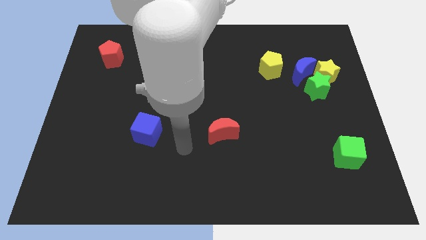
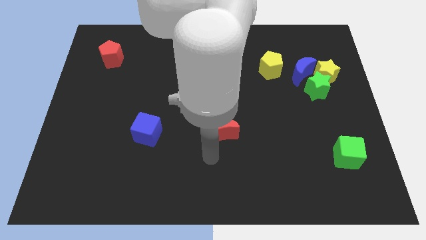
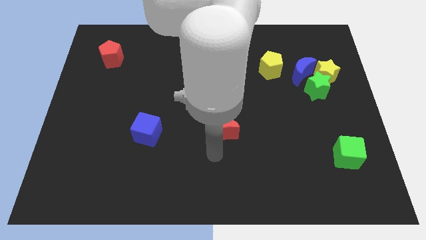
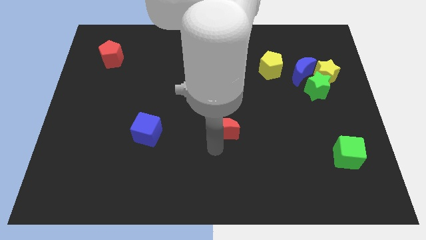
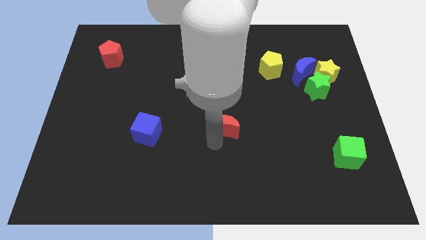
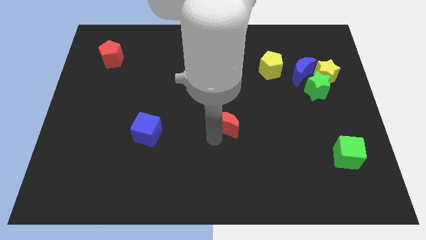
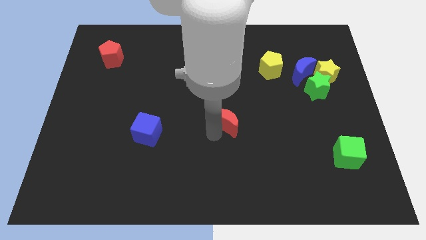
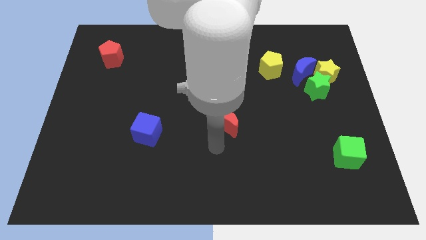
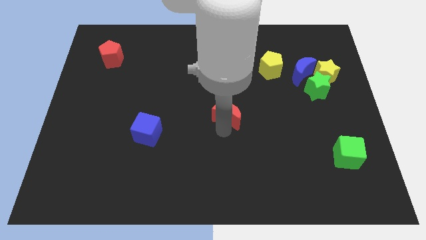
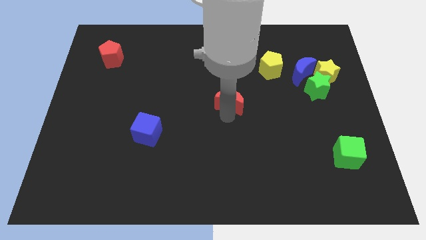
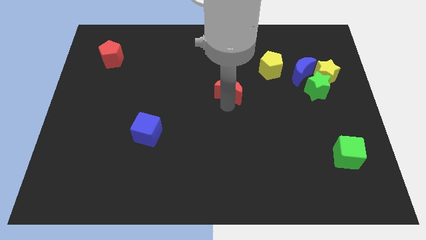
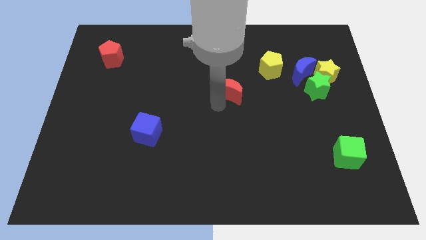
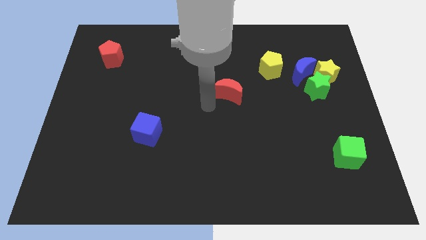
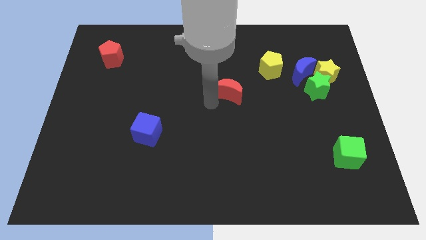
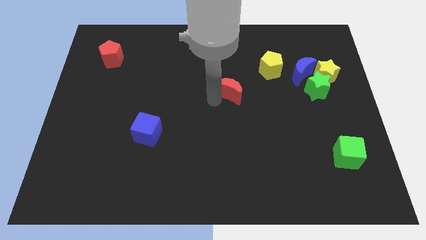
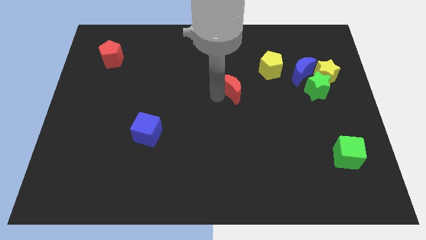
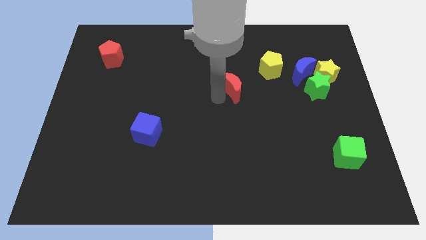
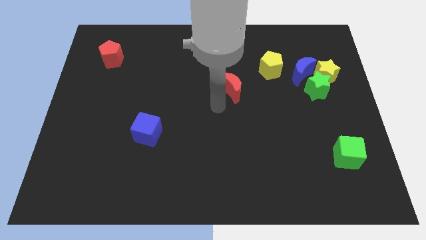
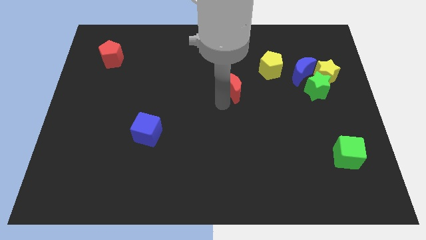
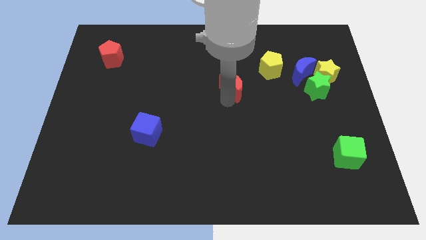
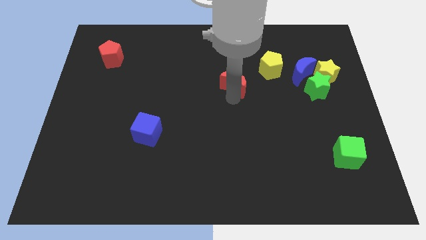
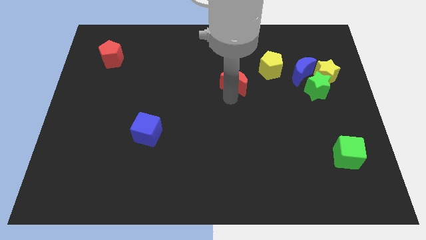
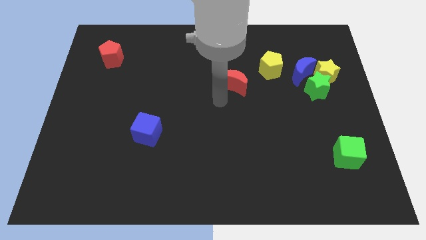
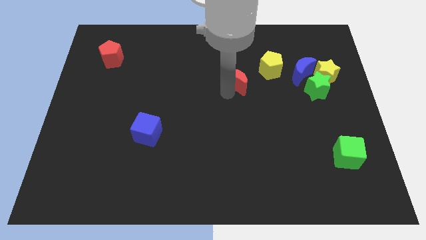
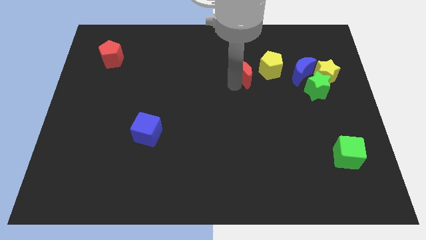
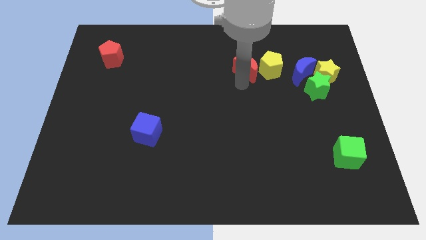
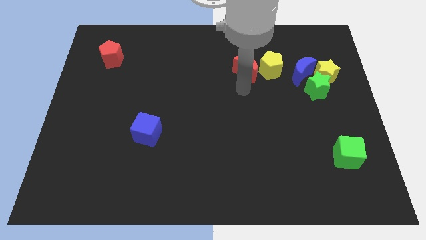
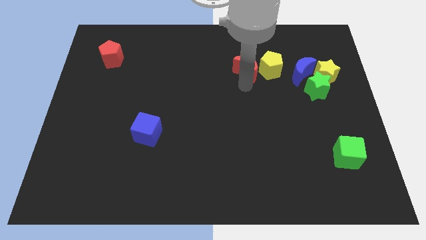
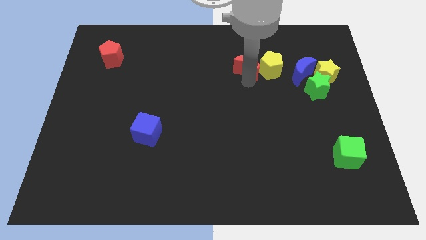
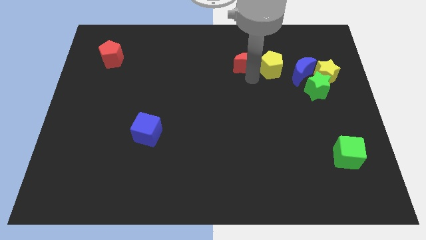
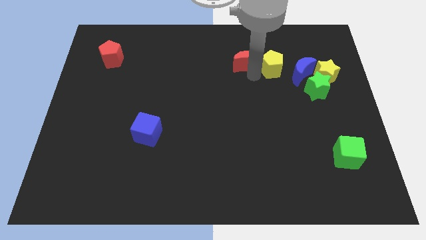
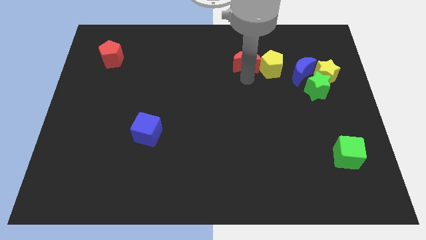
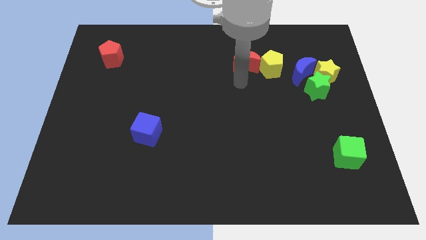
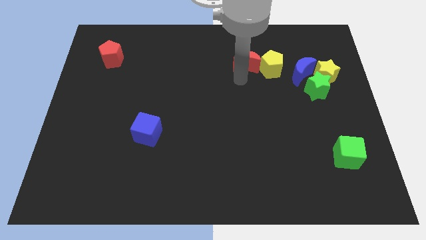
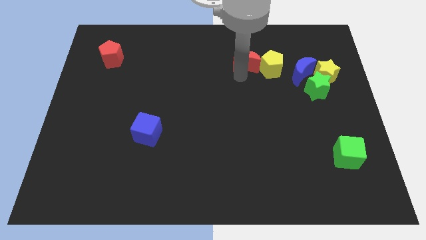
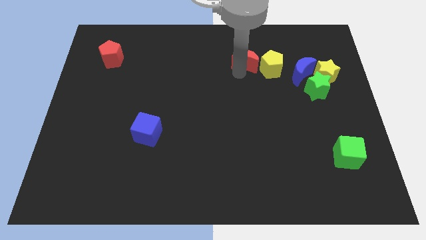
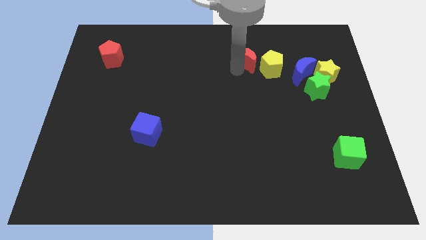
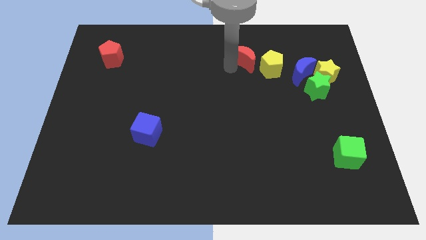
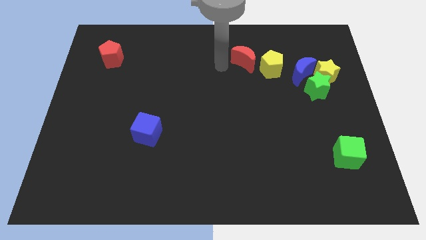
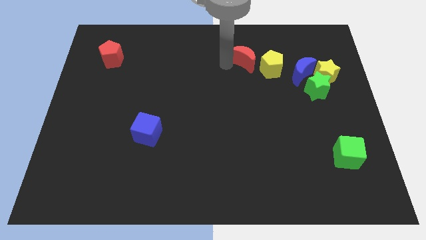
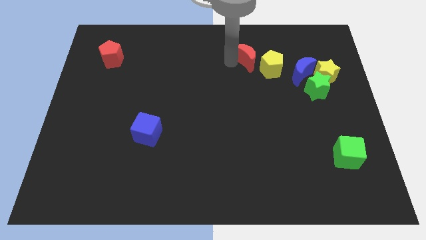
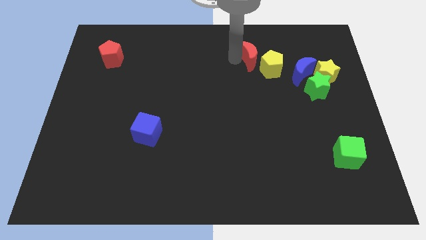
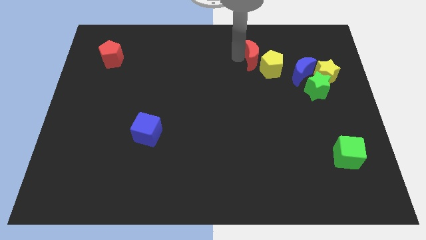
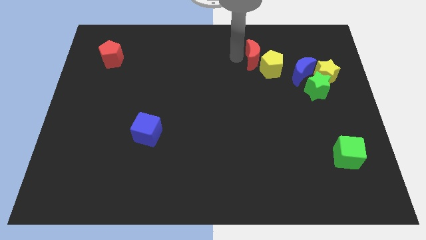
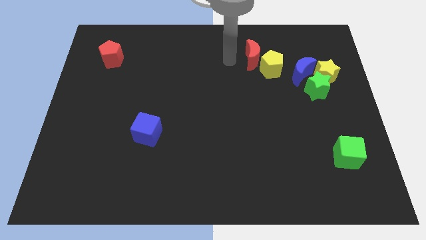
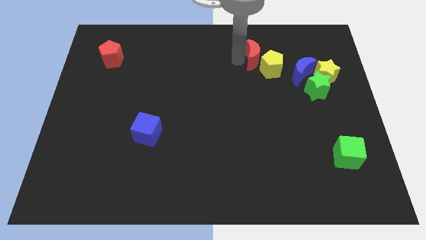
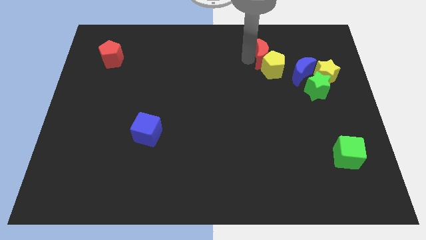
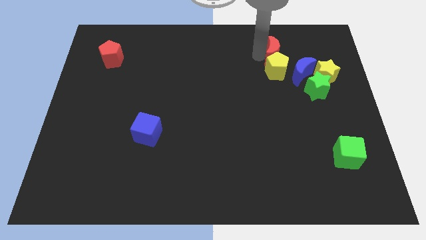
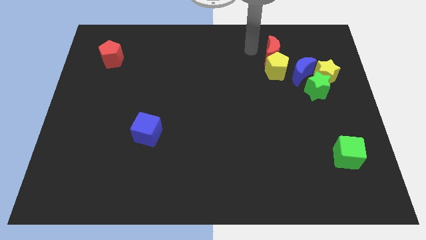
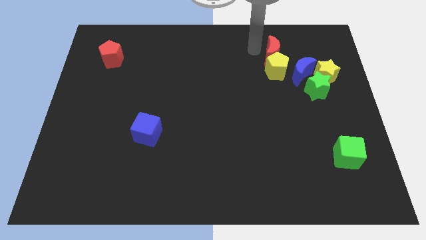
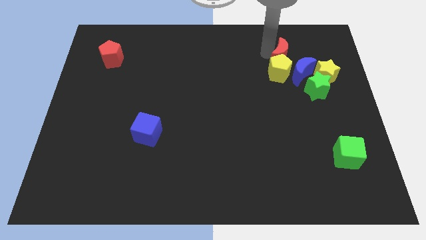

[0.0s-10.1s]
push the red moon to the top left of the yellow star

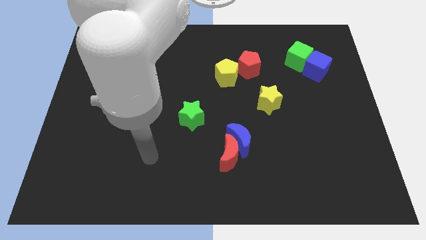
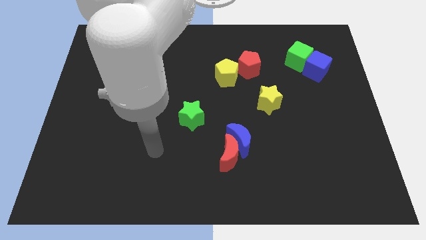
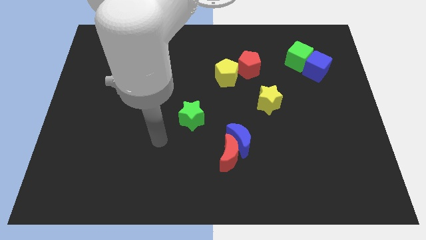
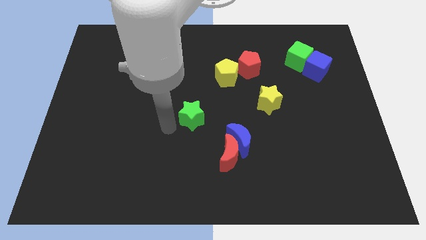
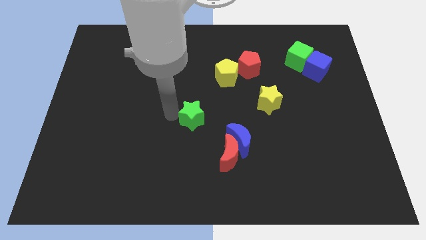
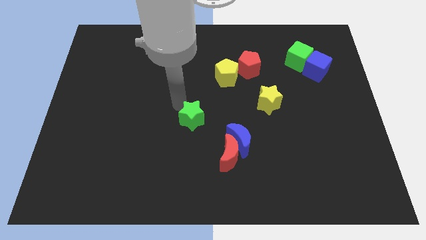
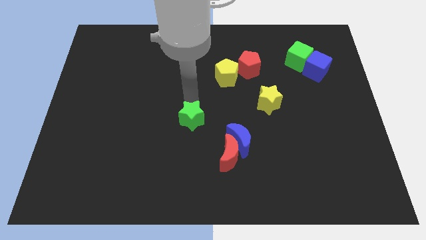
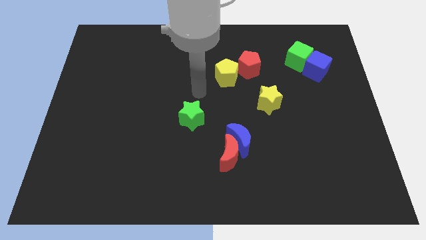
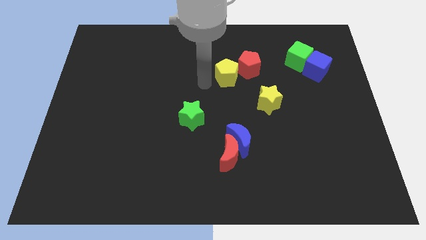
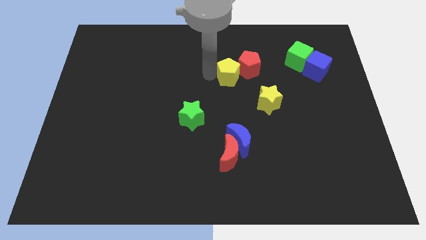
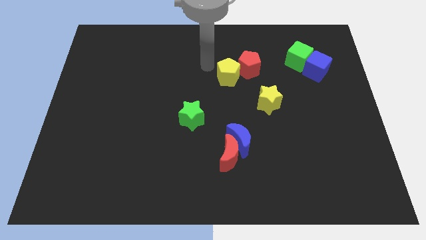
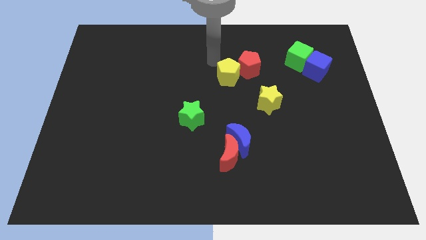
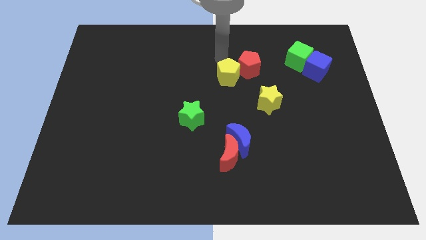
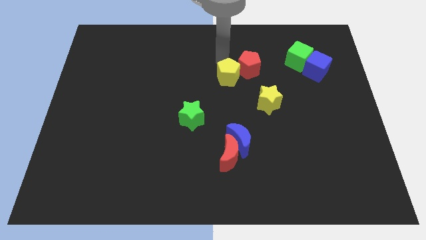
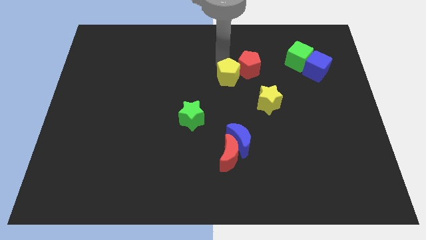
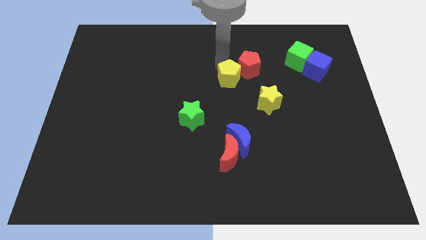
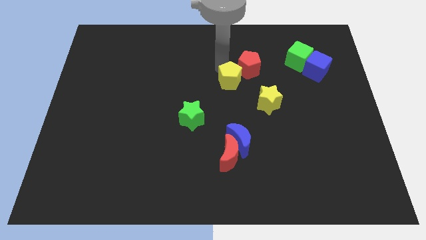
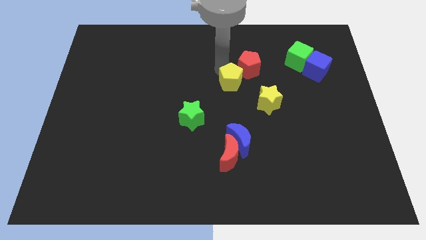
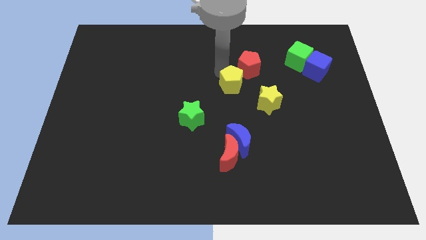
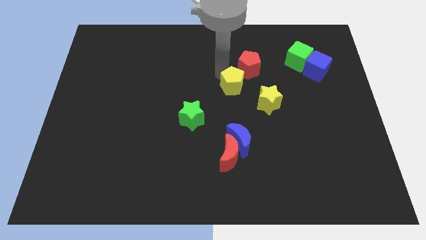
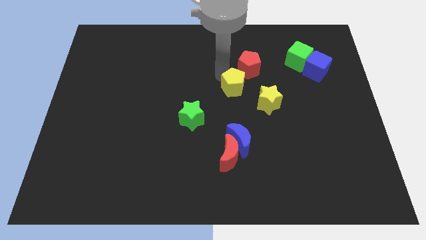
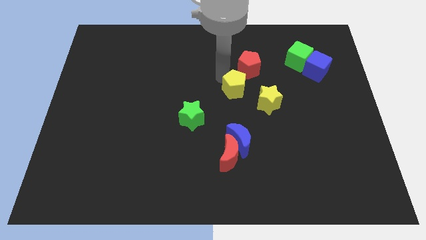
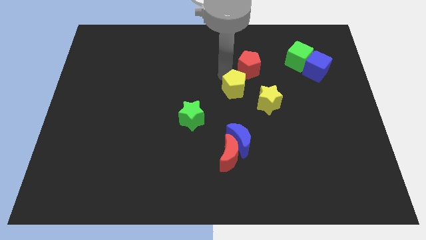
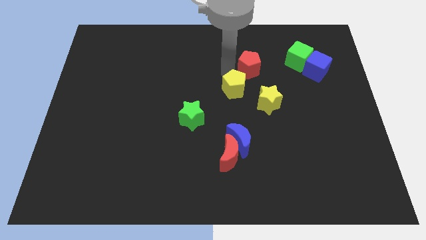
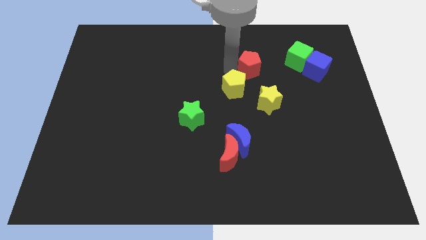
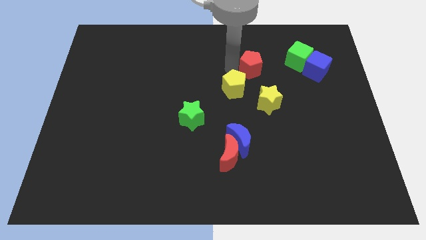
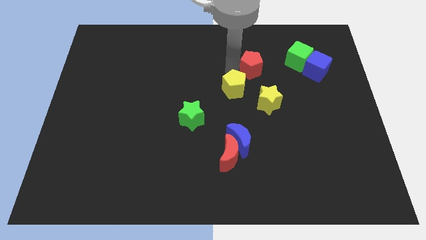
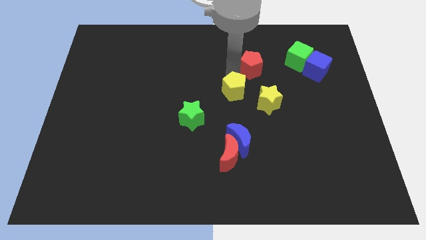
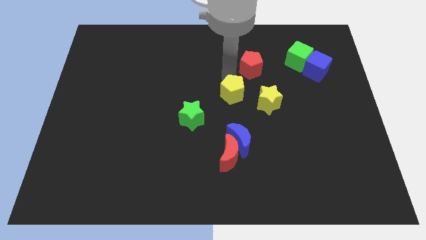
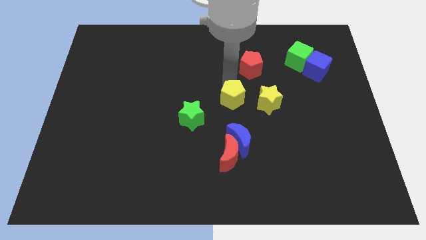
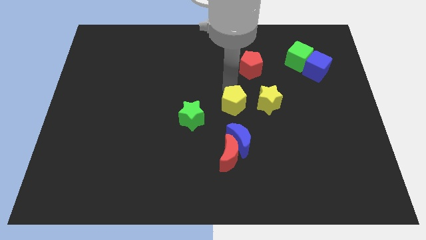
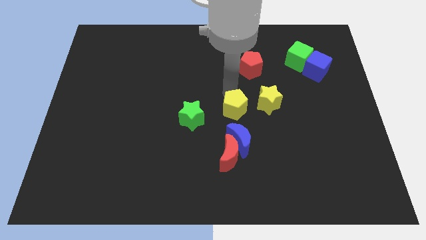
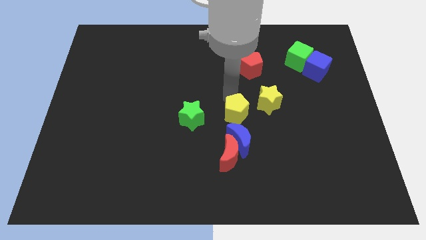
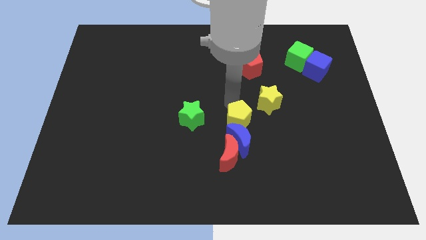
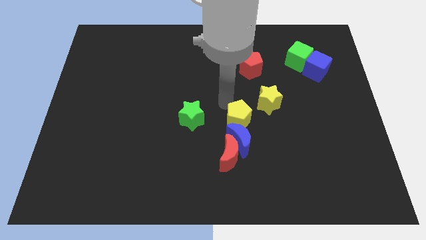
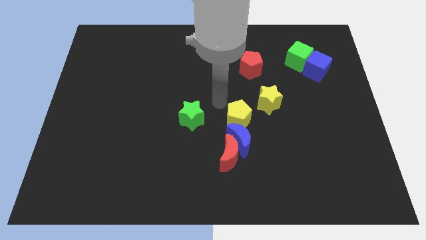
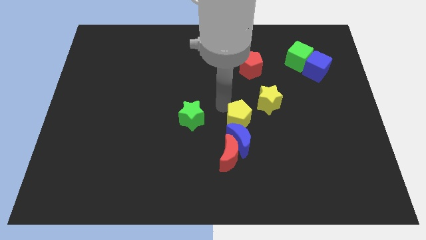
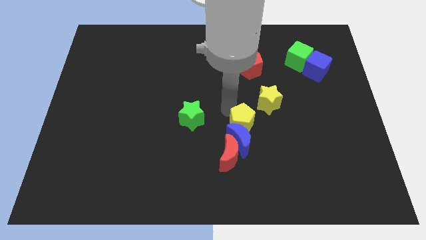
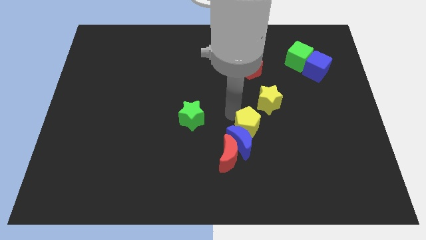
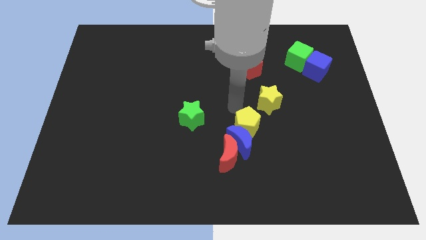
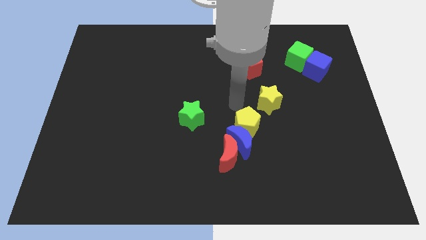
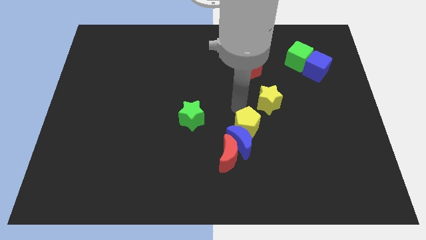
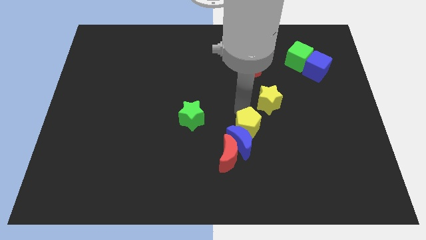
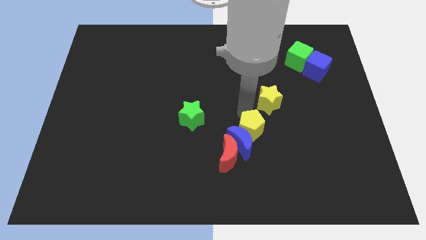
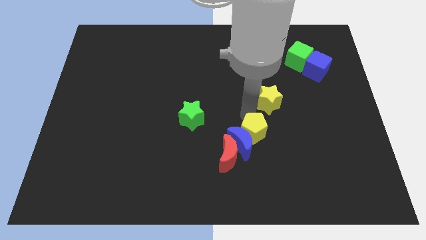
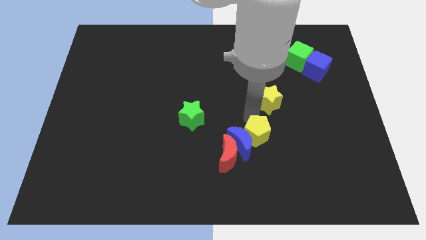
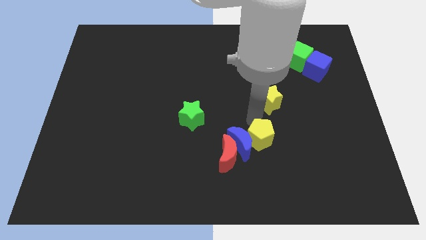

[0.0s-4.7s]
move the yellow pentagon to the bottom right of the blue moon
